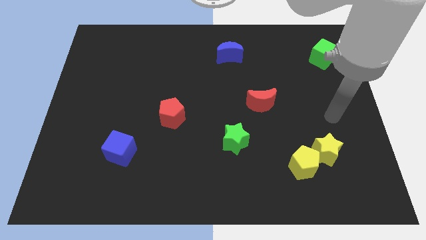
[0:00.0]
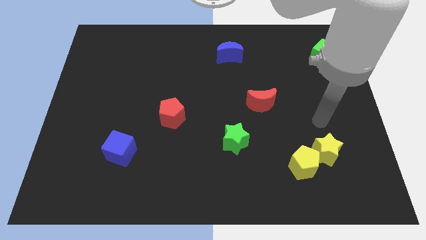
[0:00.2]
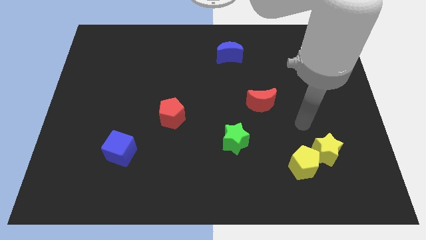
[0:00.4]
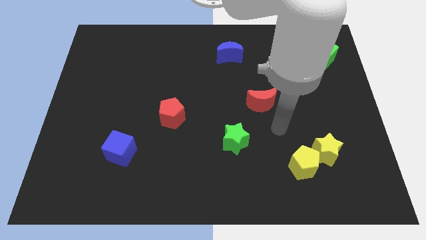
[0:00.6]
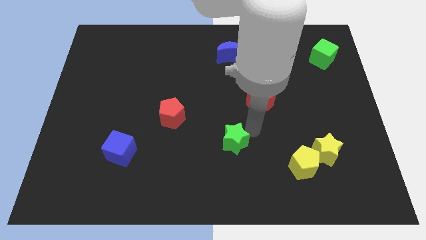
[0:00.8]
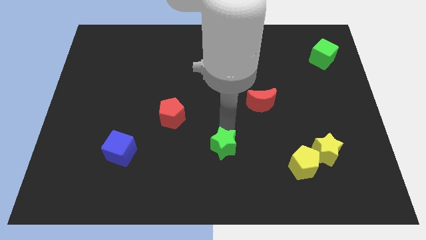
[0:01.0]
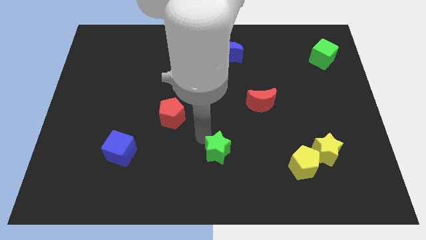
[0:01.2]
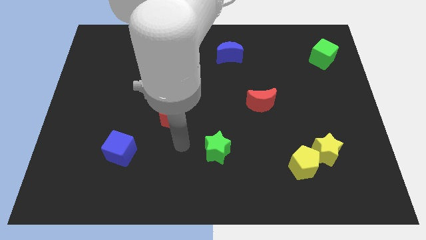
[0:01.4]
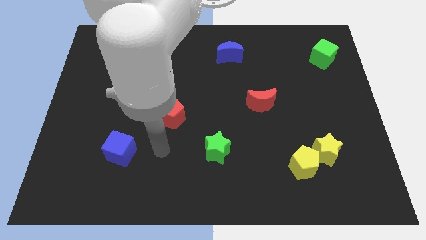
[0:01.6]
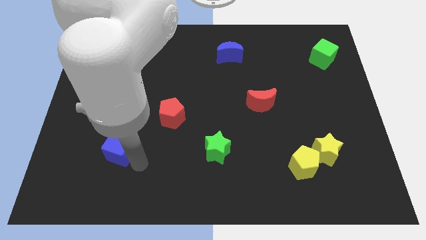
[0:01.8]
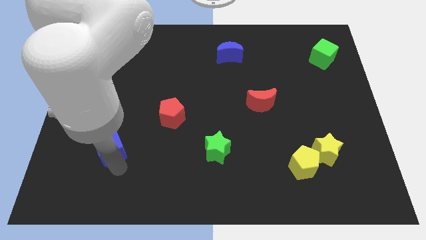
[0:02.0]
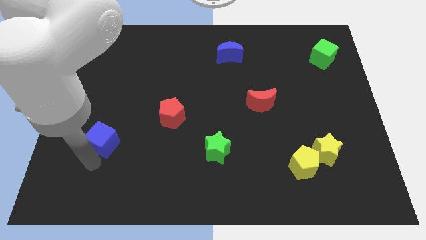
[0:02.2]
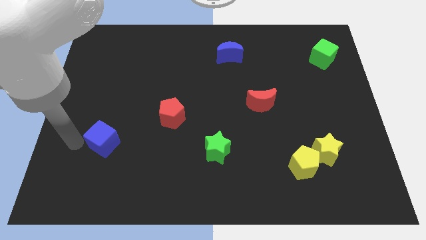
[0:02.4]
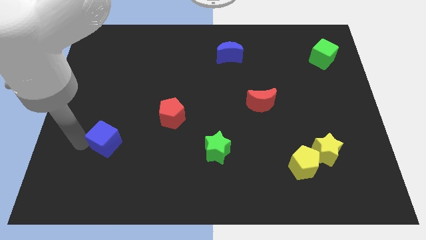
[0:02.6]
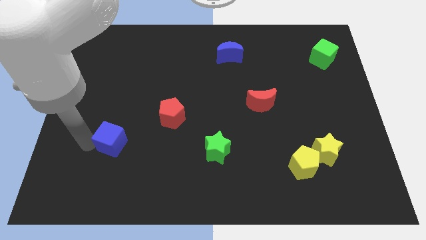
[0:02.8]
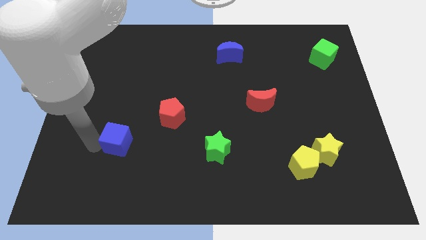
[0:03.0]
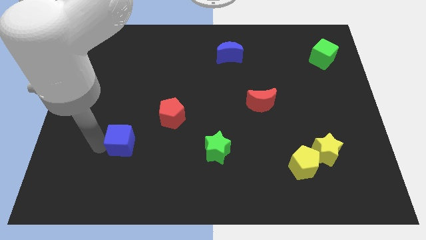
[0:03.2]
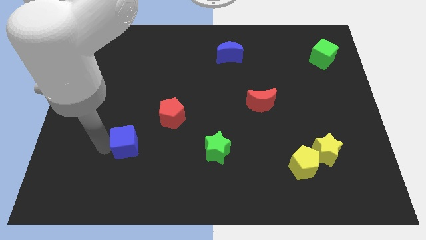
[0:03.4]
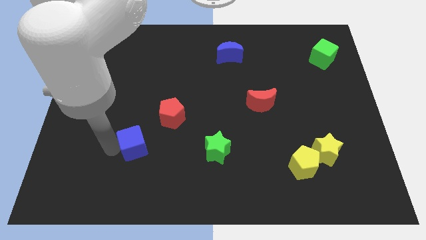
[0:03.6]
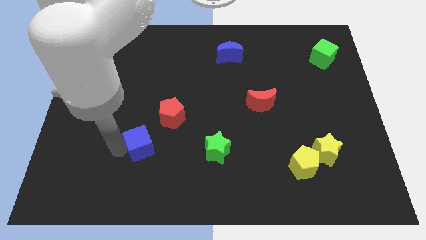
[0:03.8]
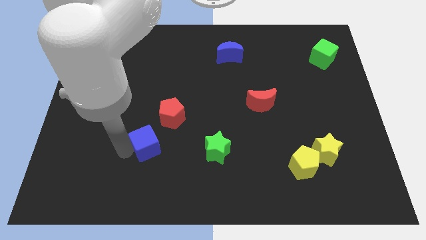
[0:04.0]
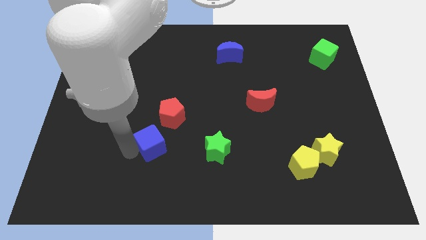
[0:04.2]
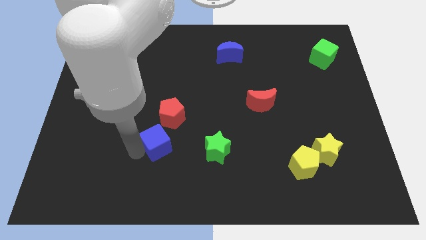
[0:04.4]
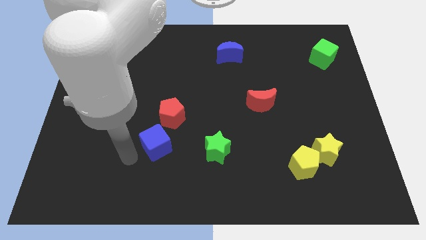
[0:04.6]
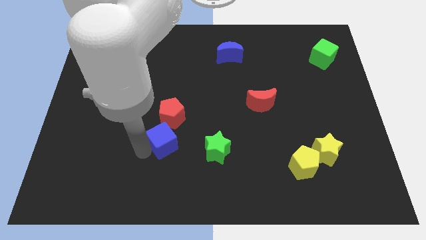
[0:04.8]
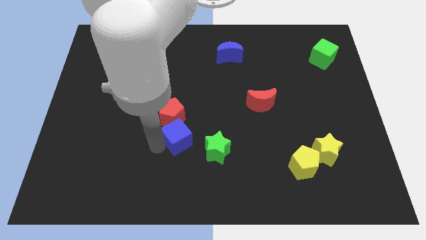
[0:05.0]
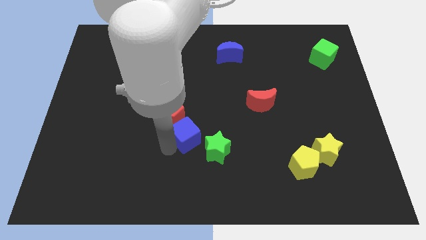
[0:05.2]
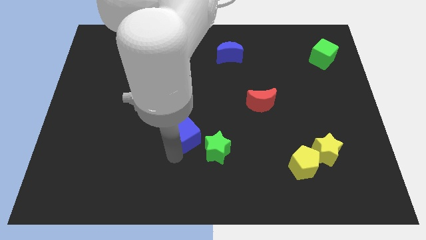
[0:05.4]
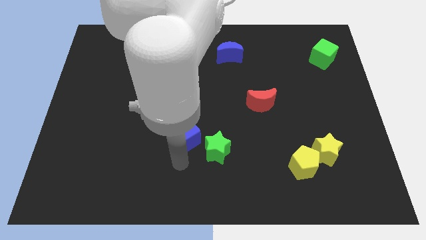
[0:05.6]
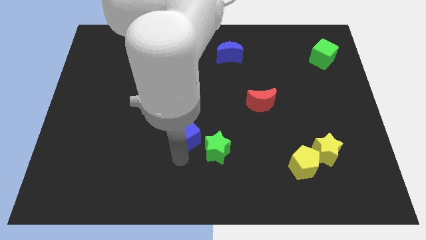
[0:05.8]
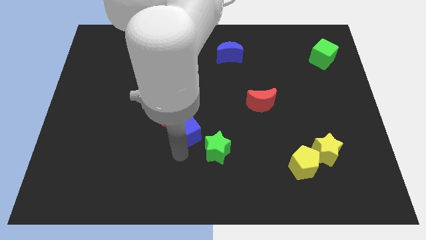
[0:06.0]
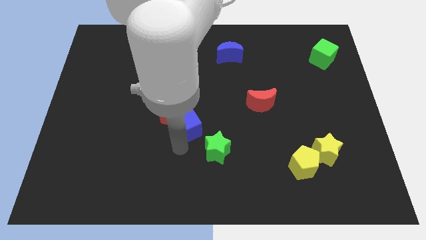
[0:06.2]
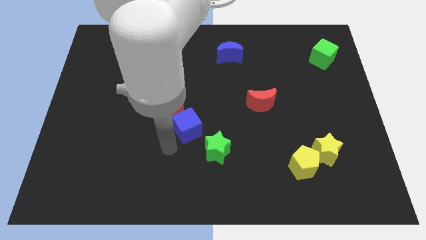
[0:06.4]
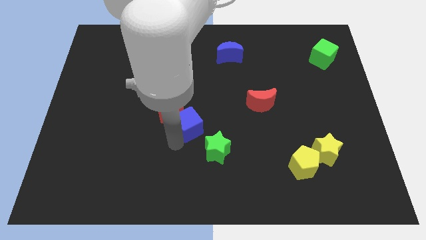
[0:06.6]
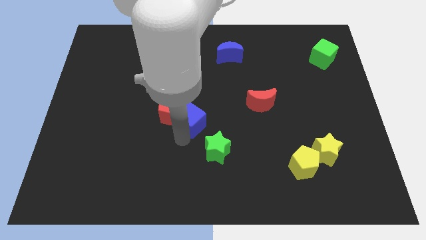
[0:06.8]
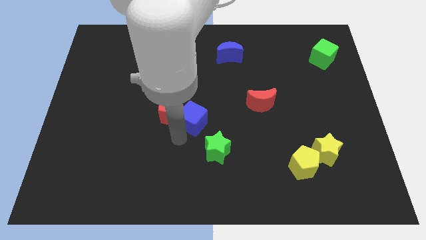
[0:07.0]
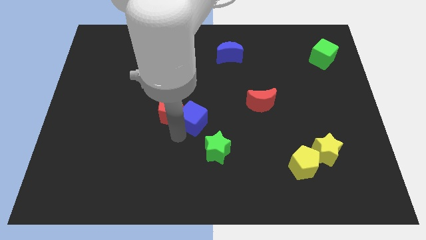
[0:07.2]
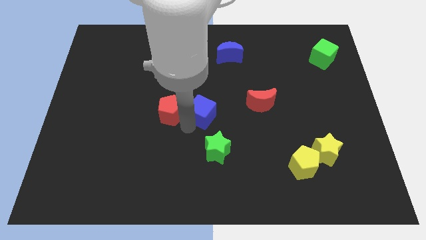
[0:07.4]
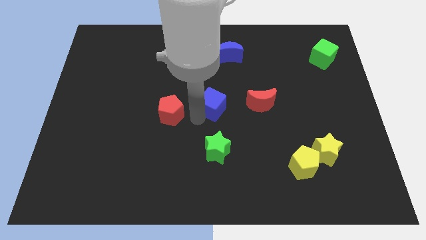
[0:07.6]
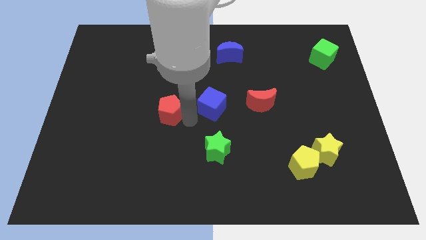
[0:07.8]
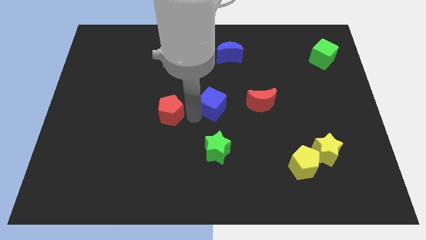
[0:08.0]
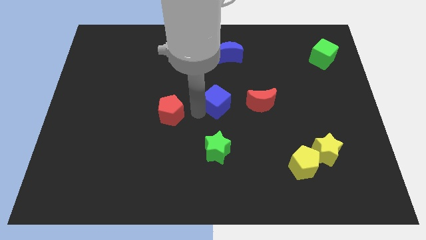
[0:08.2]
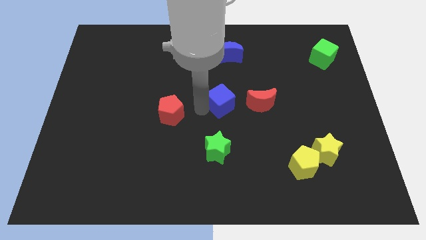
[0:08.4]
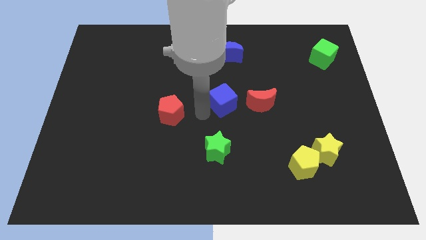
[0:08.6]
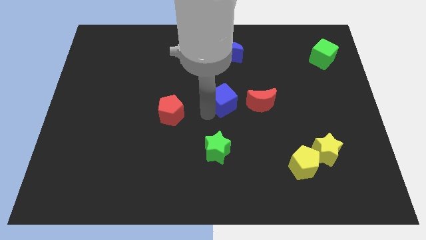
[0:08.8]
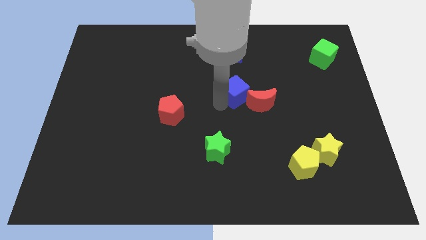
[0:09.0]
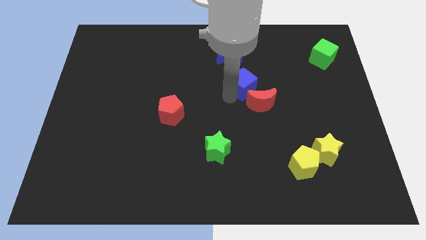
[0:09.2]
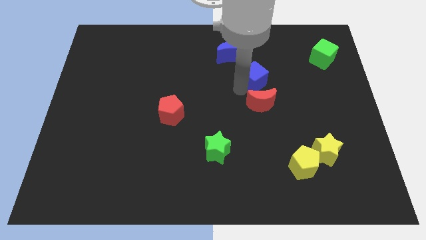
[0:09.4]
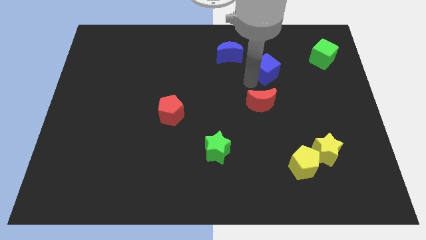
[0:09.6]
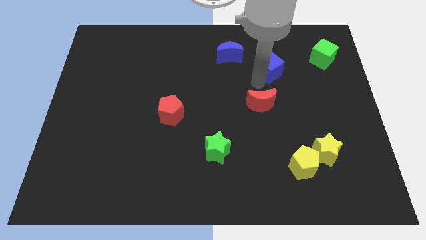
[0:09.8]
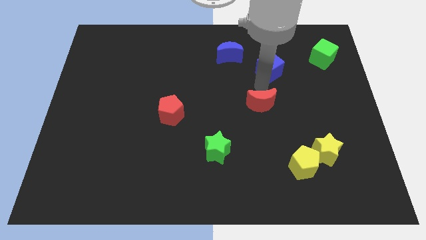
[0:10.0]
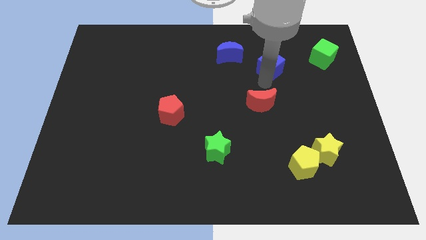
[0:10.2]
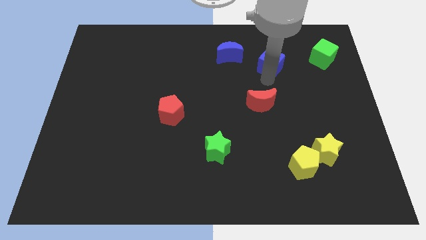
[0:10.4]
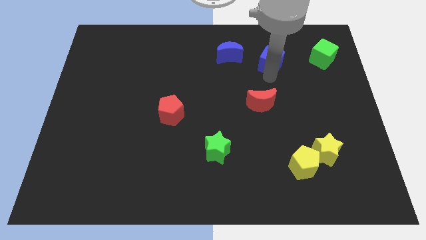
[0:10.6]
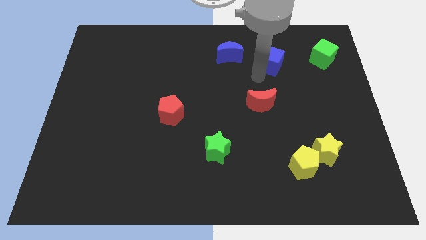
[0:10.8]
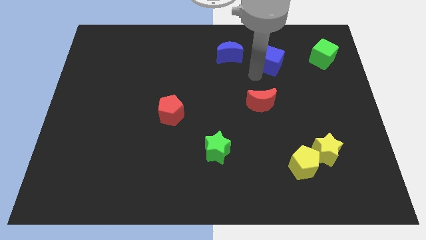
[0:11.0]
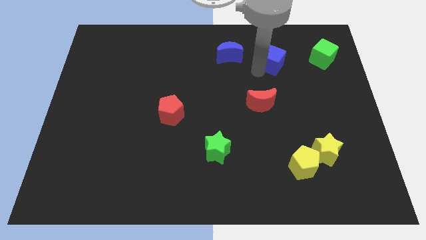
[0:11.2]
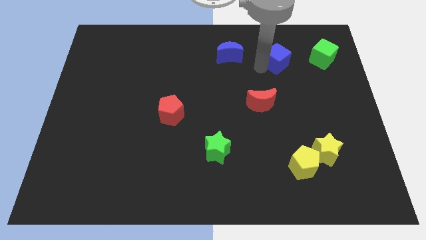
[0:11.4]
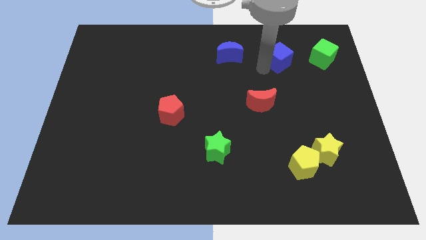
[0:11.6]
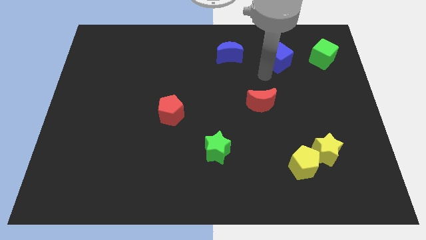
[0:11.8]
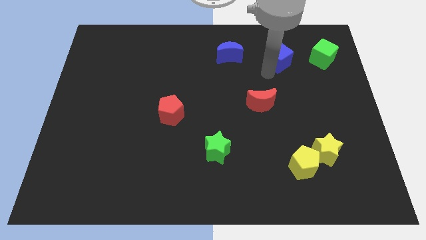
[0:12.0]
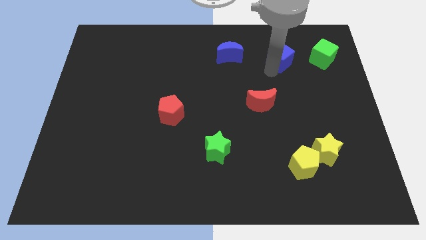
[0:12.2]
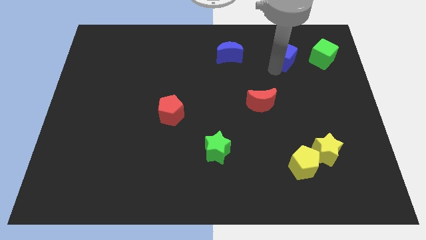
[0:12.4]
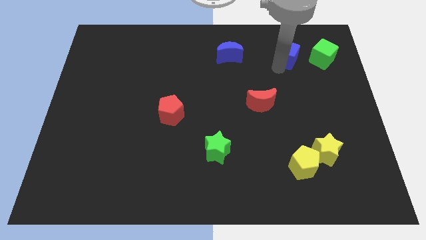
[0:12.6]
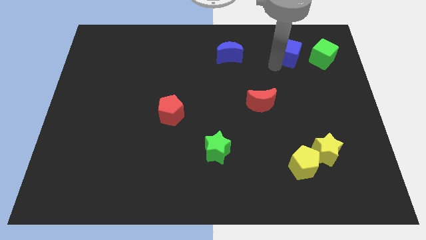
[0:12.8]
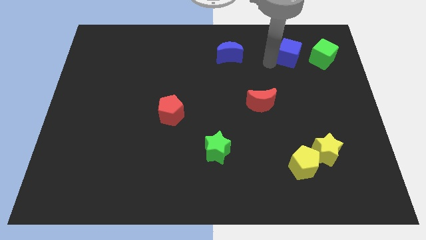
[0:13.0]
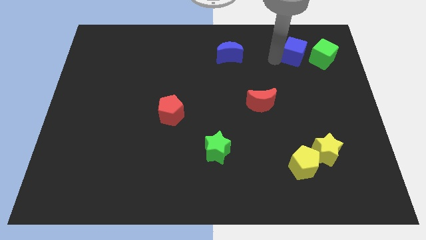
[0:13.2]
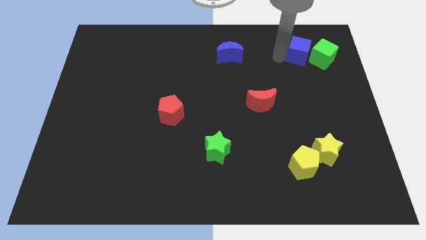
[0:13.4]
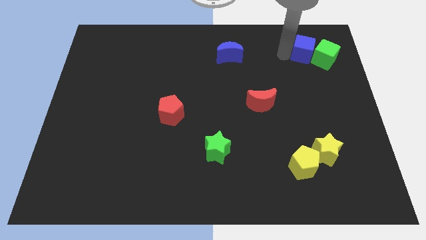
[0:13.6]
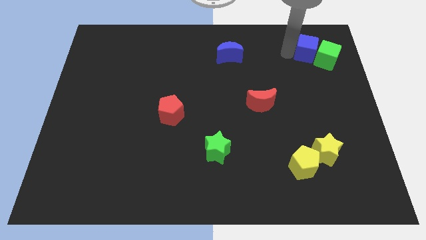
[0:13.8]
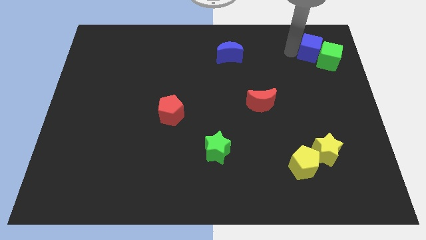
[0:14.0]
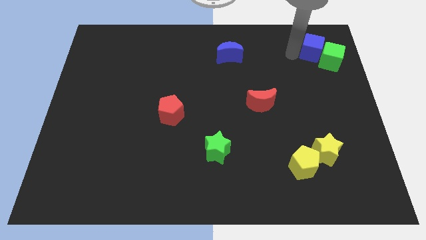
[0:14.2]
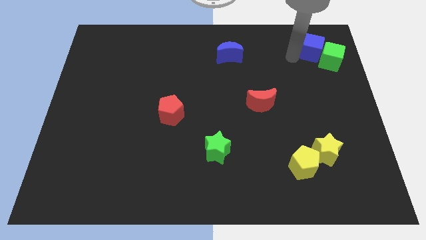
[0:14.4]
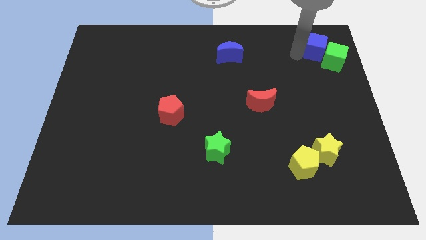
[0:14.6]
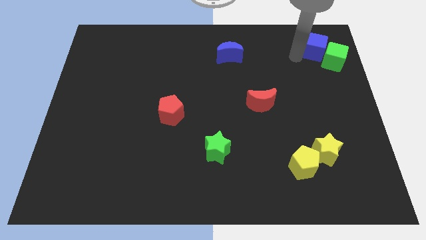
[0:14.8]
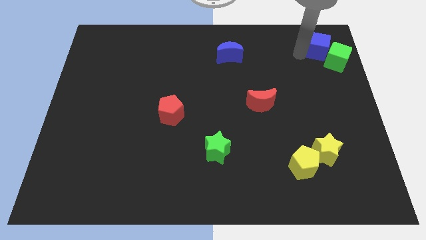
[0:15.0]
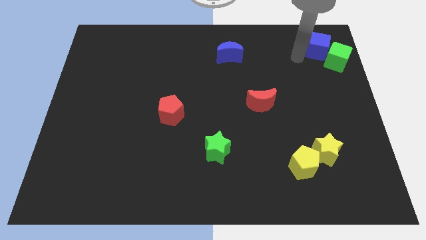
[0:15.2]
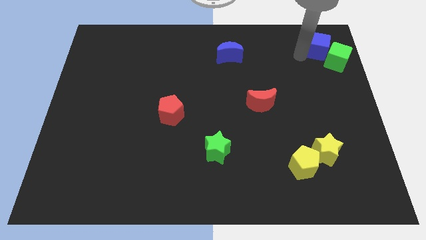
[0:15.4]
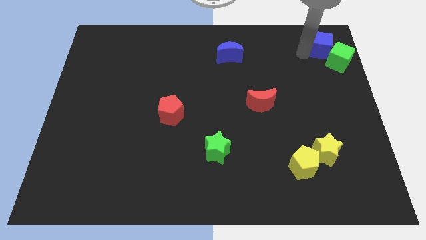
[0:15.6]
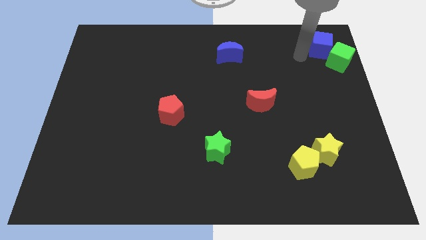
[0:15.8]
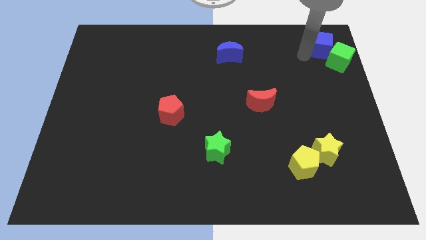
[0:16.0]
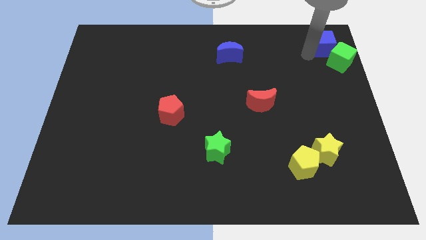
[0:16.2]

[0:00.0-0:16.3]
slide the blue cube to the upper right corner
